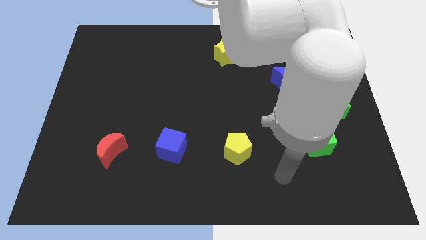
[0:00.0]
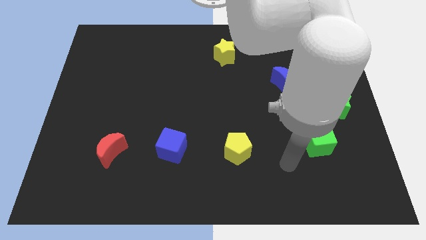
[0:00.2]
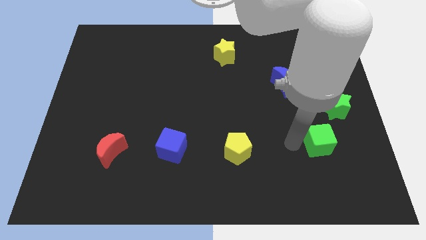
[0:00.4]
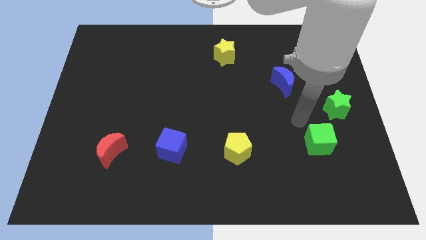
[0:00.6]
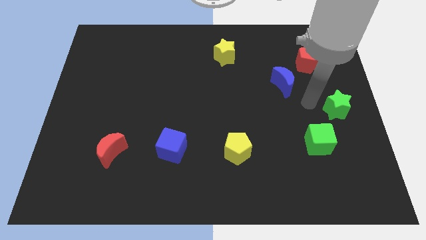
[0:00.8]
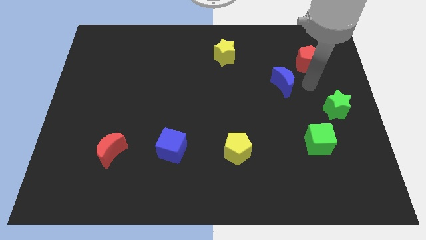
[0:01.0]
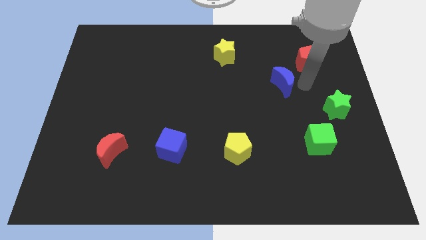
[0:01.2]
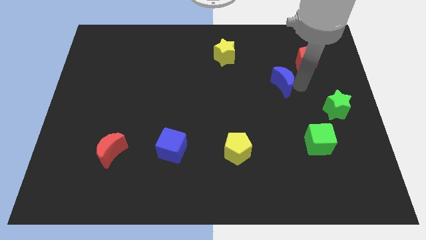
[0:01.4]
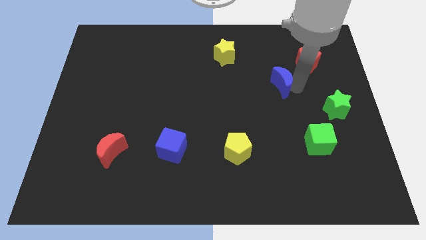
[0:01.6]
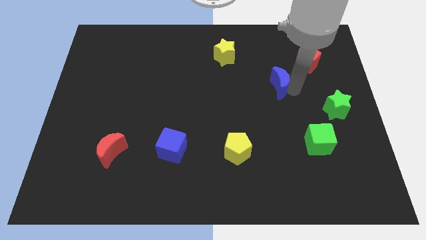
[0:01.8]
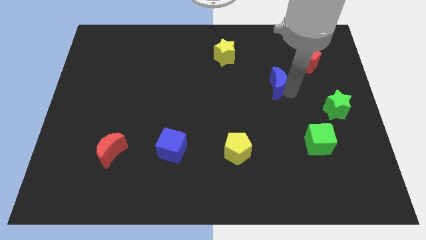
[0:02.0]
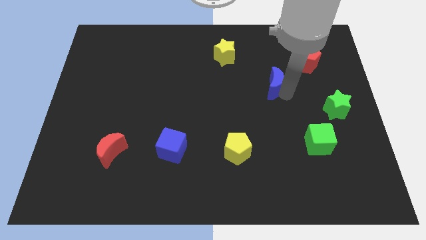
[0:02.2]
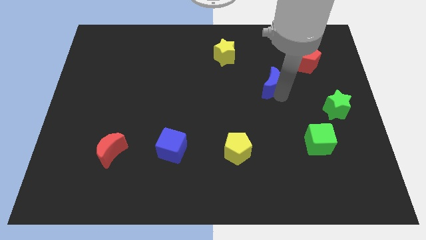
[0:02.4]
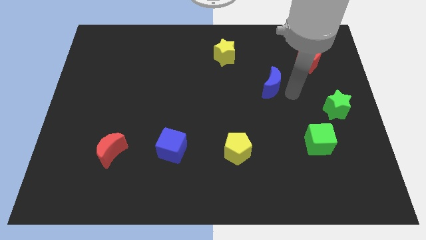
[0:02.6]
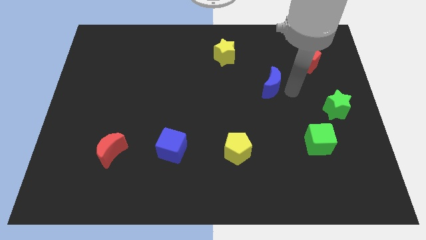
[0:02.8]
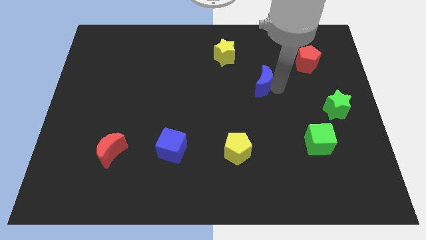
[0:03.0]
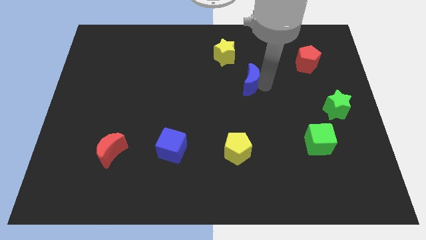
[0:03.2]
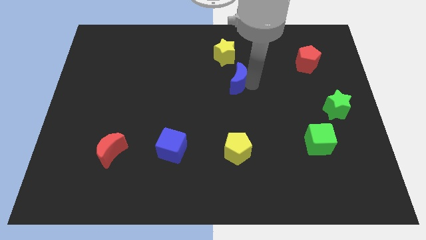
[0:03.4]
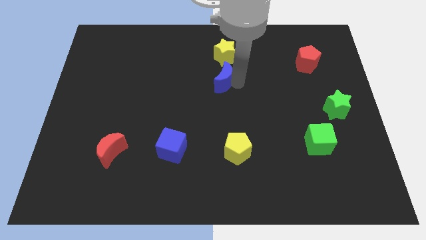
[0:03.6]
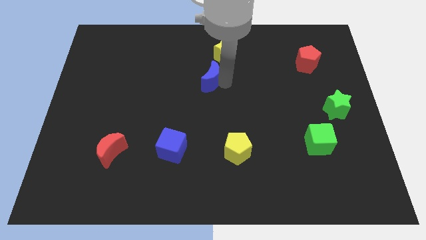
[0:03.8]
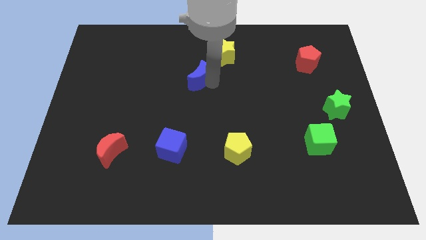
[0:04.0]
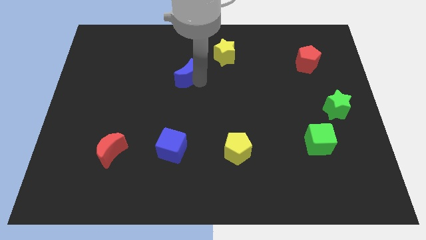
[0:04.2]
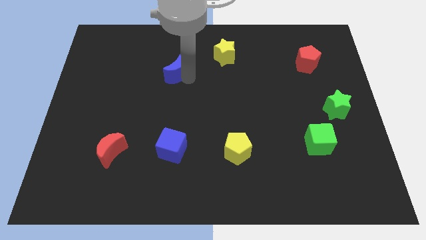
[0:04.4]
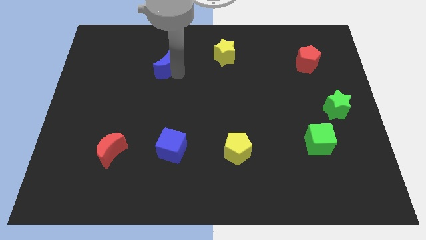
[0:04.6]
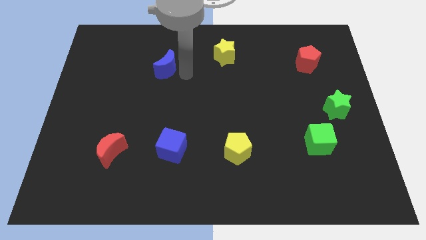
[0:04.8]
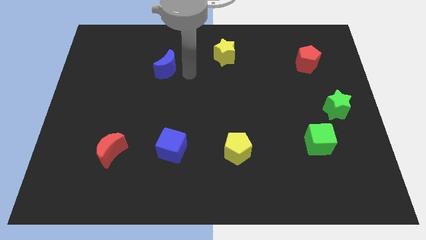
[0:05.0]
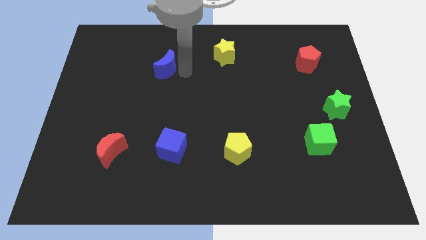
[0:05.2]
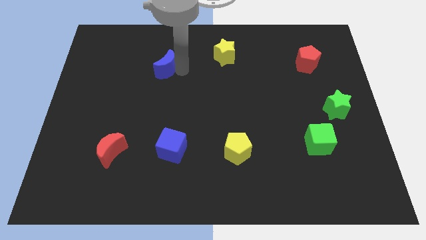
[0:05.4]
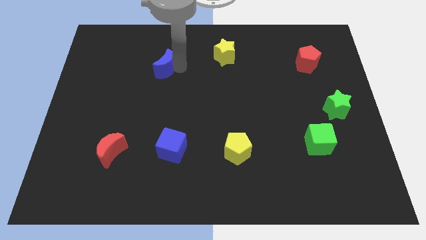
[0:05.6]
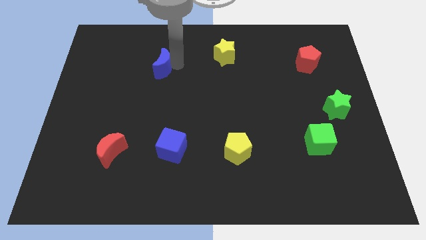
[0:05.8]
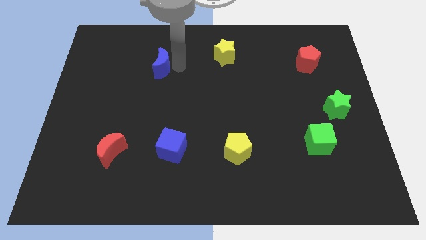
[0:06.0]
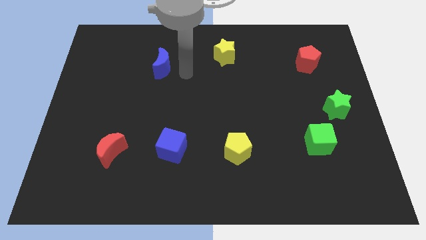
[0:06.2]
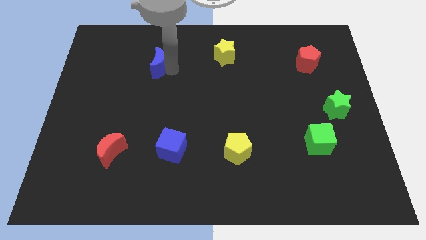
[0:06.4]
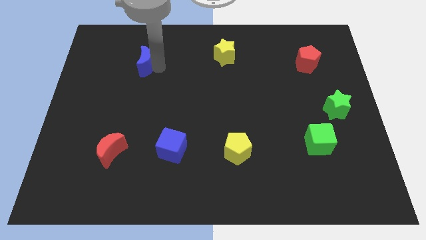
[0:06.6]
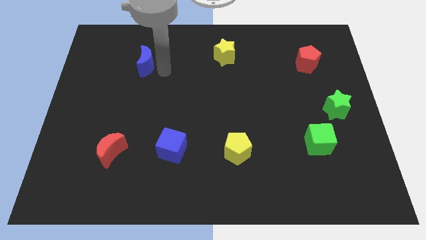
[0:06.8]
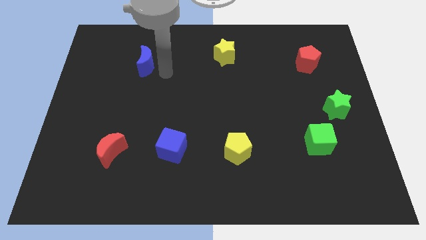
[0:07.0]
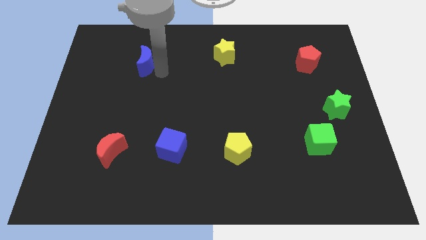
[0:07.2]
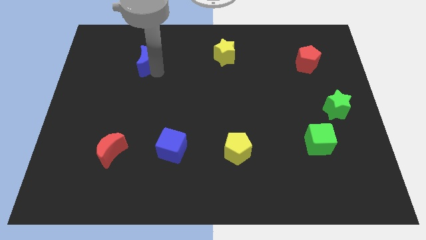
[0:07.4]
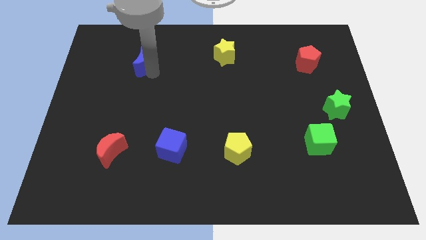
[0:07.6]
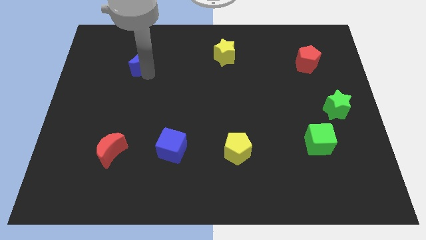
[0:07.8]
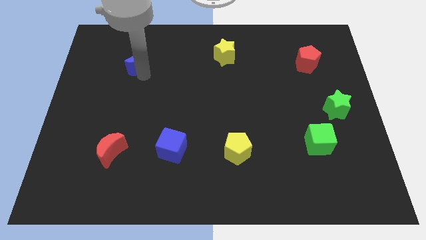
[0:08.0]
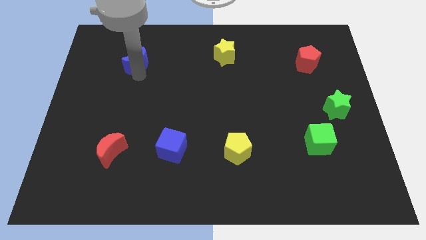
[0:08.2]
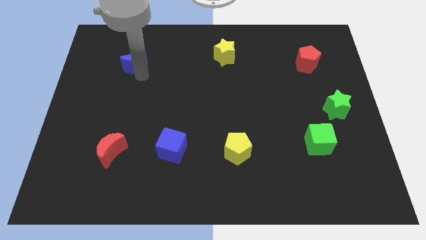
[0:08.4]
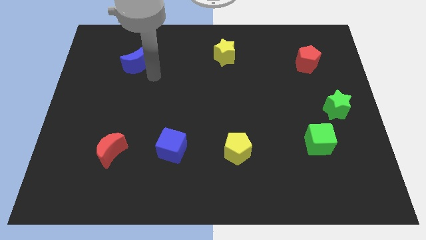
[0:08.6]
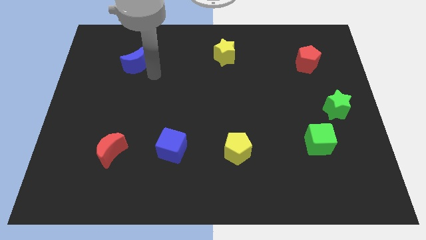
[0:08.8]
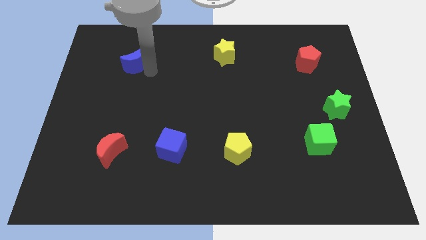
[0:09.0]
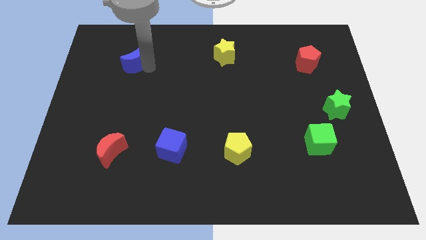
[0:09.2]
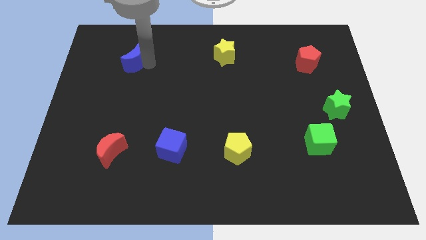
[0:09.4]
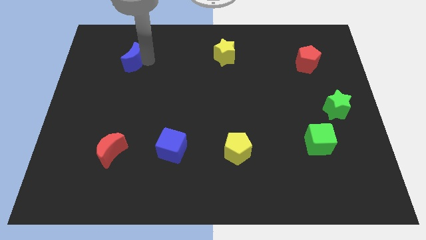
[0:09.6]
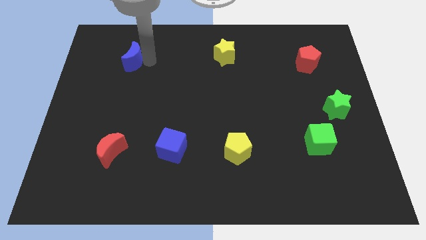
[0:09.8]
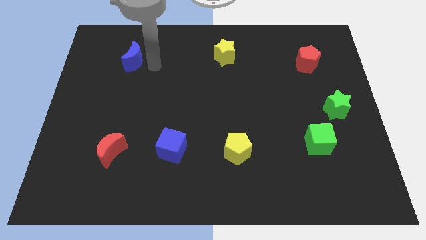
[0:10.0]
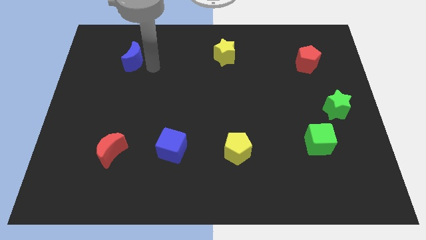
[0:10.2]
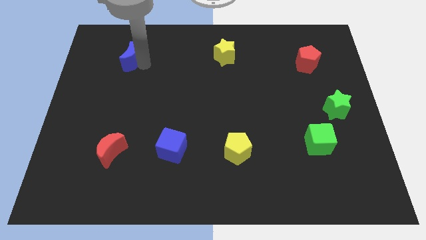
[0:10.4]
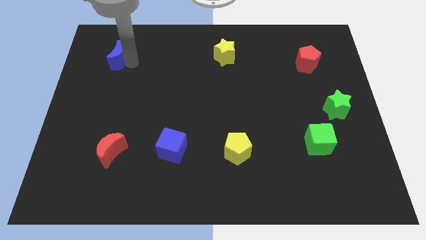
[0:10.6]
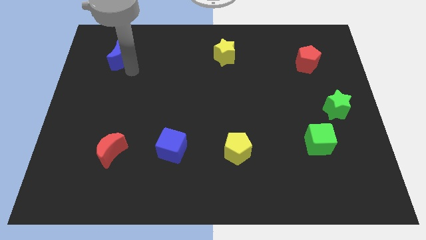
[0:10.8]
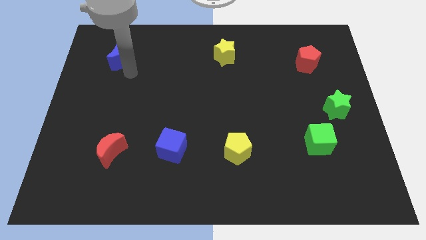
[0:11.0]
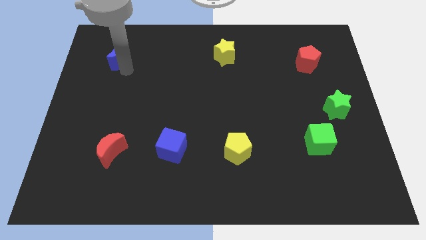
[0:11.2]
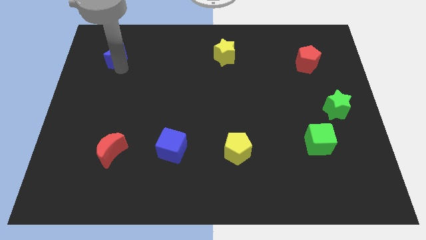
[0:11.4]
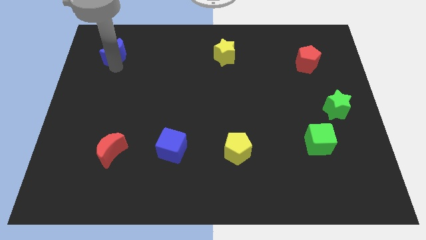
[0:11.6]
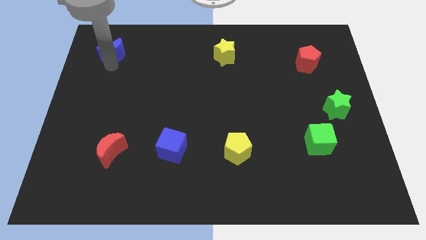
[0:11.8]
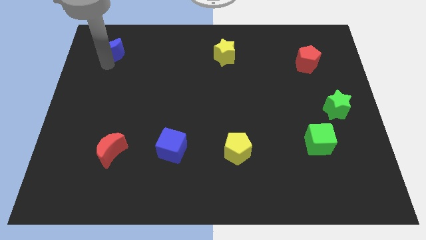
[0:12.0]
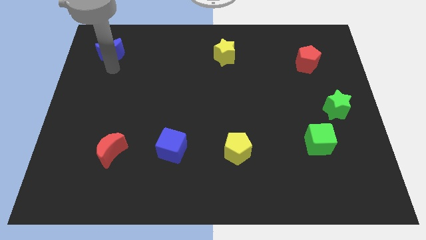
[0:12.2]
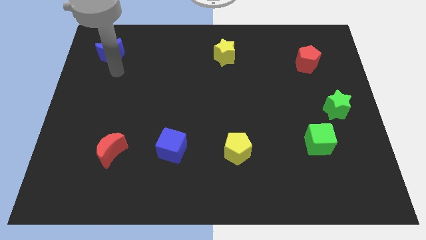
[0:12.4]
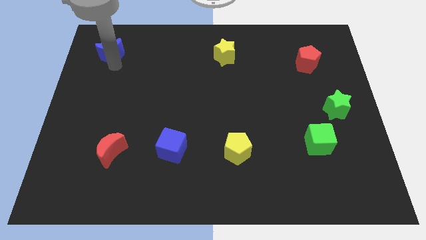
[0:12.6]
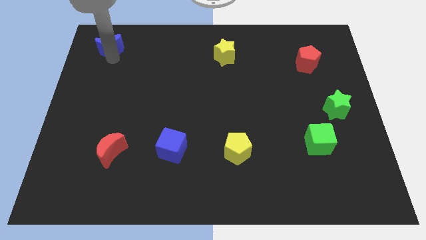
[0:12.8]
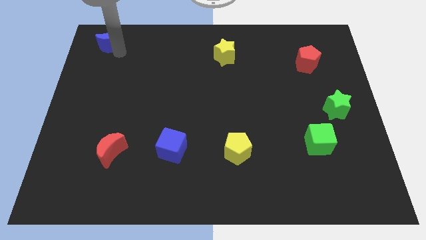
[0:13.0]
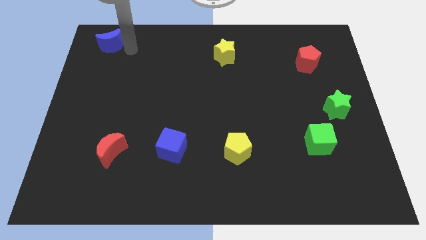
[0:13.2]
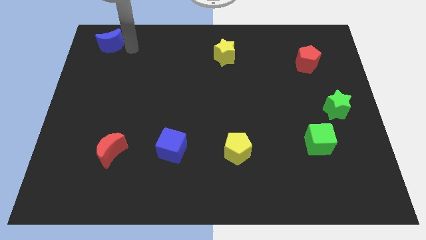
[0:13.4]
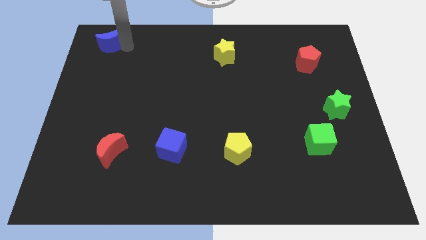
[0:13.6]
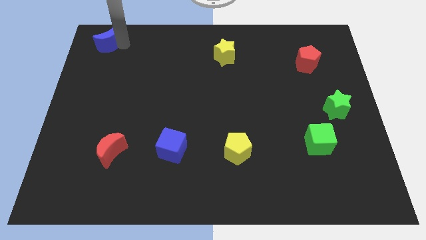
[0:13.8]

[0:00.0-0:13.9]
move the blue moon to the top left corner
